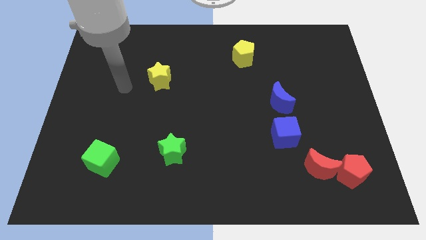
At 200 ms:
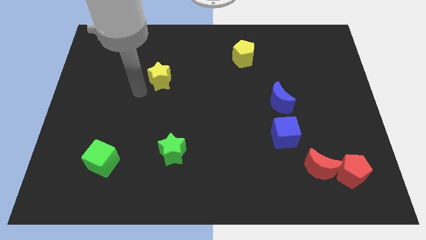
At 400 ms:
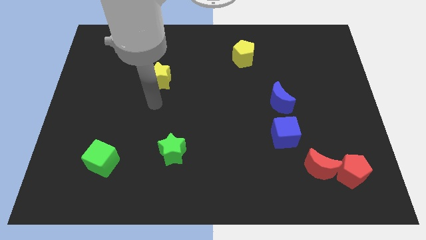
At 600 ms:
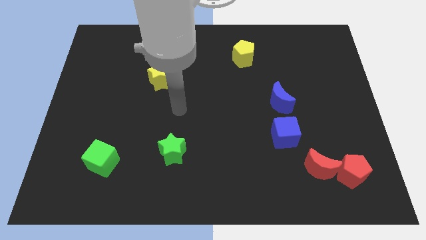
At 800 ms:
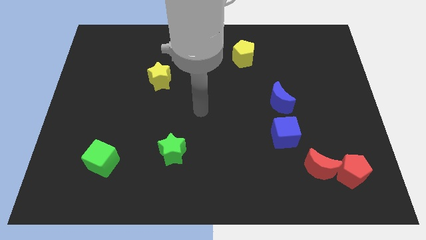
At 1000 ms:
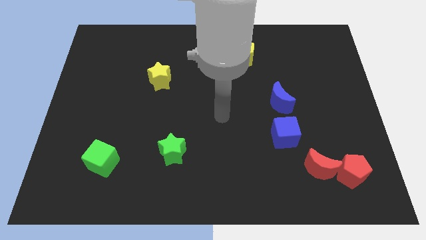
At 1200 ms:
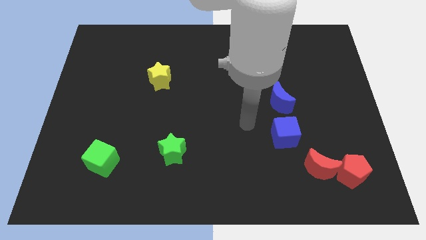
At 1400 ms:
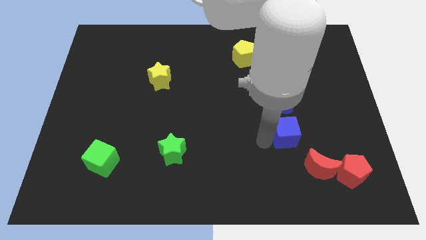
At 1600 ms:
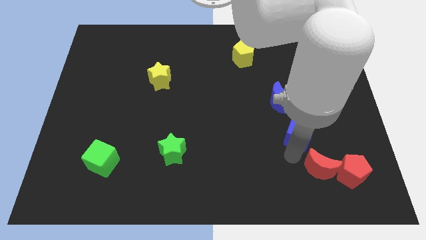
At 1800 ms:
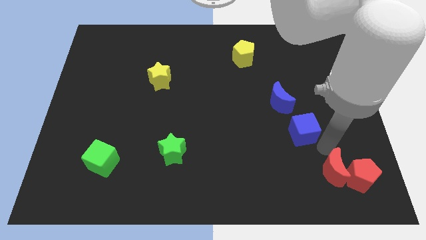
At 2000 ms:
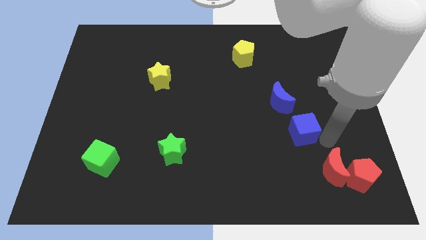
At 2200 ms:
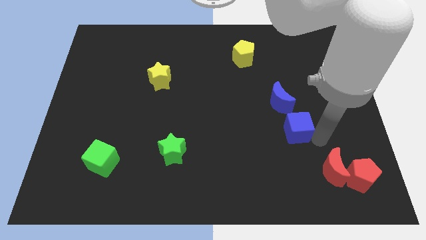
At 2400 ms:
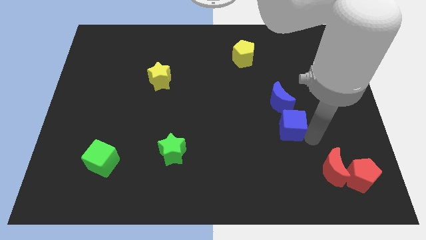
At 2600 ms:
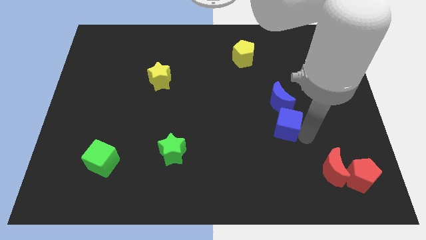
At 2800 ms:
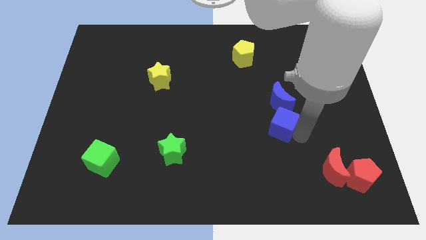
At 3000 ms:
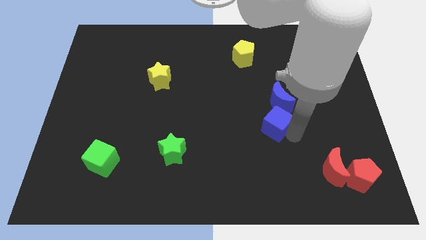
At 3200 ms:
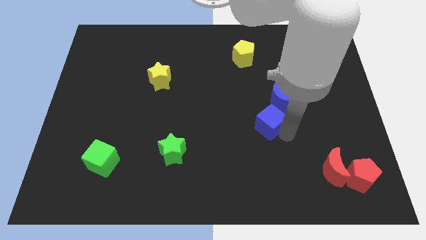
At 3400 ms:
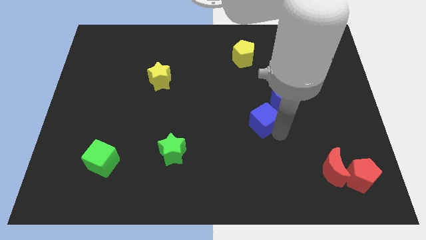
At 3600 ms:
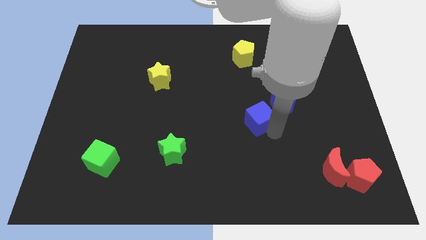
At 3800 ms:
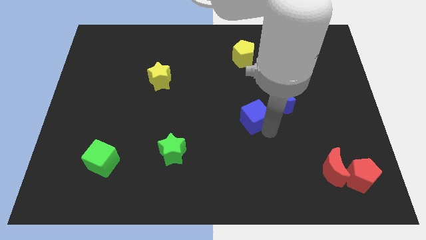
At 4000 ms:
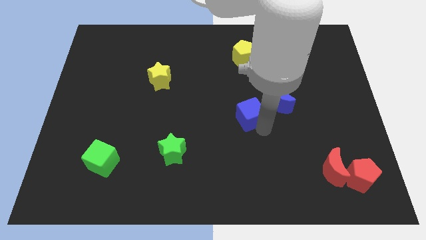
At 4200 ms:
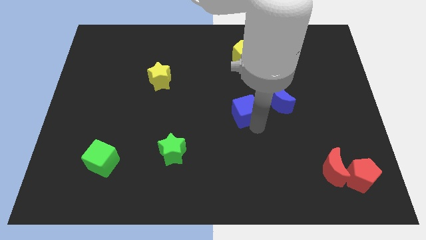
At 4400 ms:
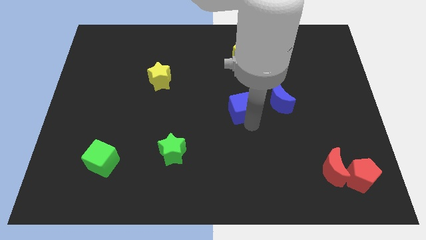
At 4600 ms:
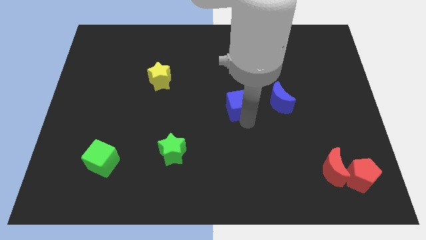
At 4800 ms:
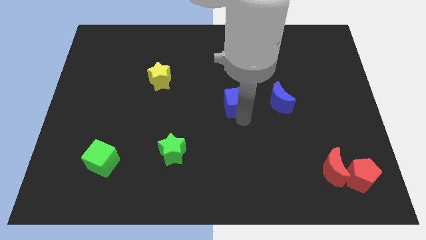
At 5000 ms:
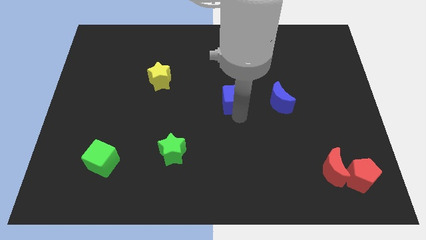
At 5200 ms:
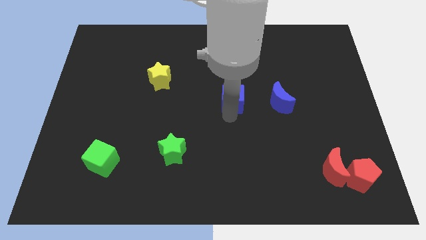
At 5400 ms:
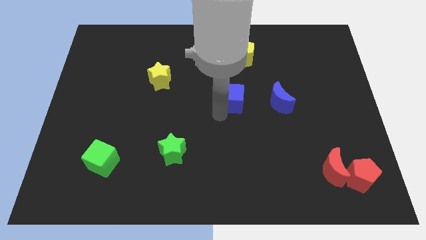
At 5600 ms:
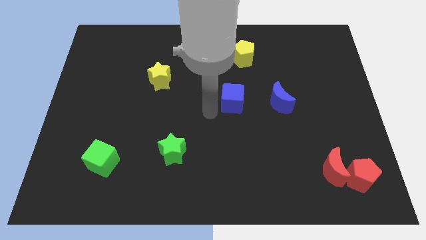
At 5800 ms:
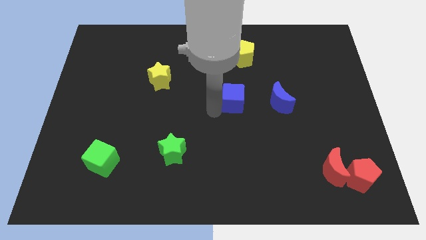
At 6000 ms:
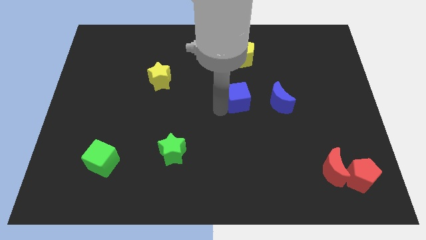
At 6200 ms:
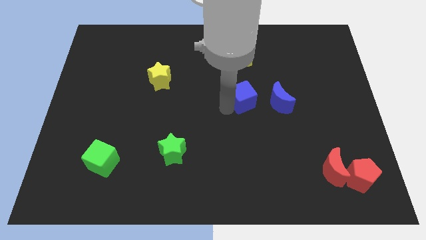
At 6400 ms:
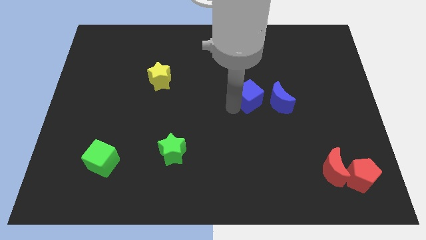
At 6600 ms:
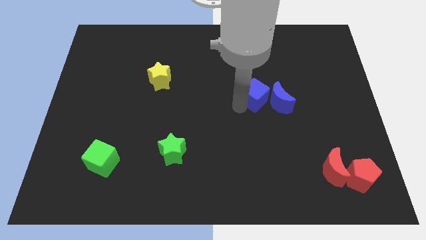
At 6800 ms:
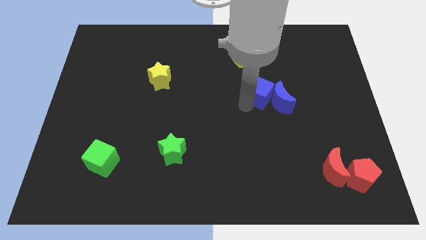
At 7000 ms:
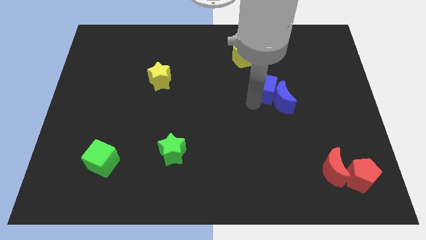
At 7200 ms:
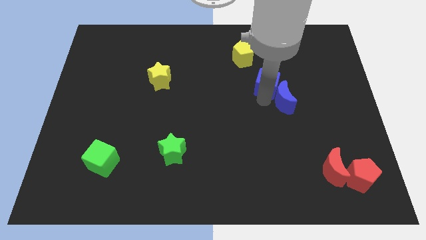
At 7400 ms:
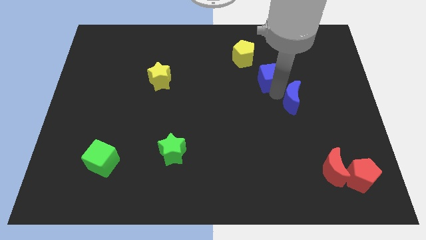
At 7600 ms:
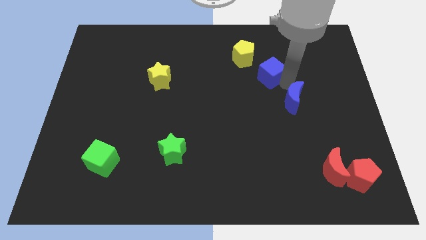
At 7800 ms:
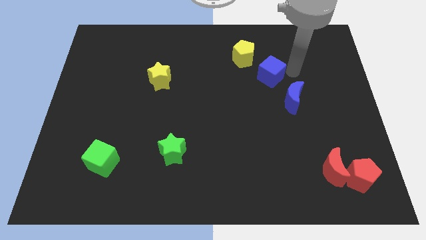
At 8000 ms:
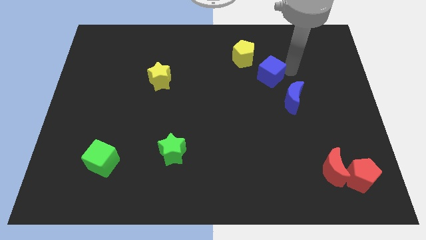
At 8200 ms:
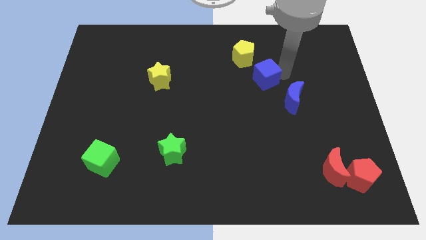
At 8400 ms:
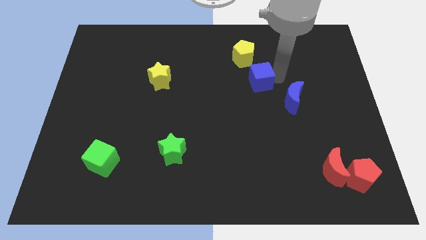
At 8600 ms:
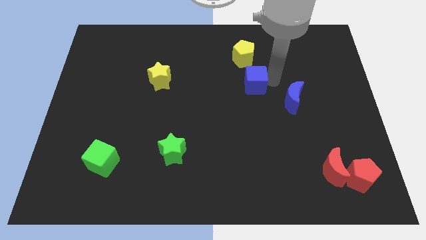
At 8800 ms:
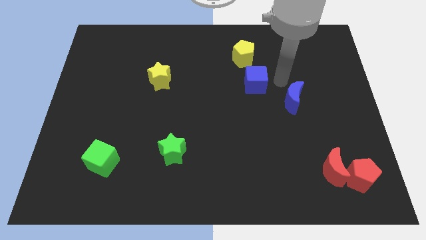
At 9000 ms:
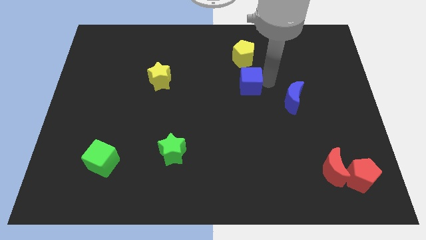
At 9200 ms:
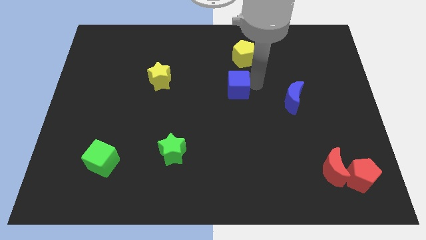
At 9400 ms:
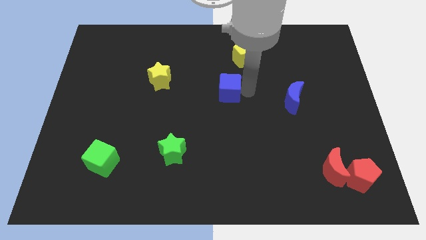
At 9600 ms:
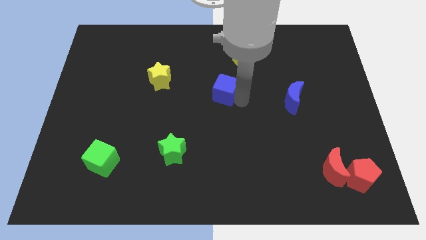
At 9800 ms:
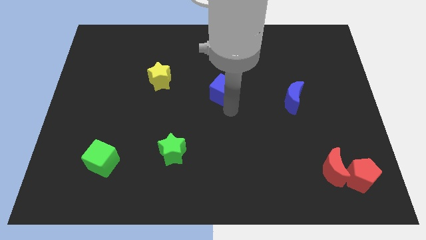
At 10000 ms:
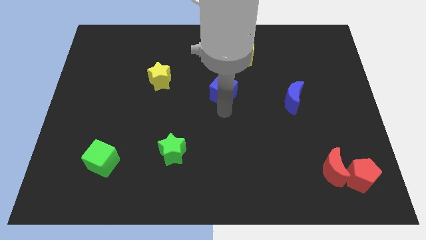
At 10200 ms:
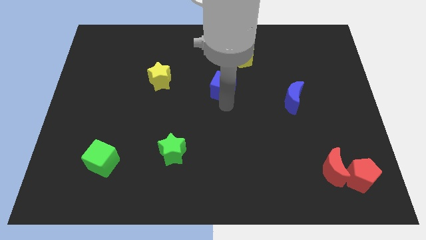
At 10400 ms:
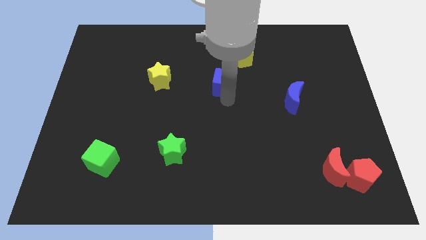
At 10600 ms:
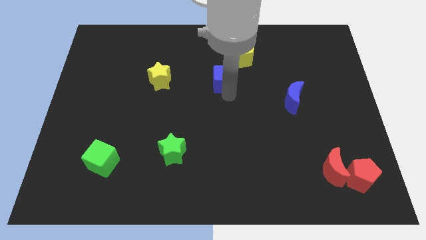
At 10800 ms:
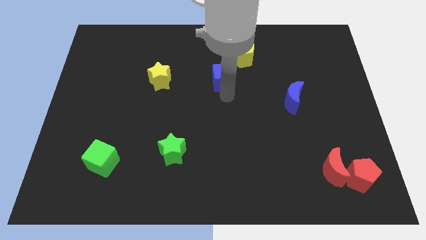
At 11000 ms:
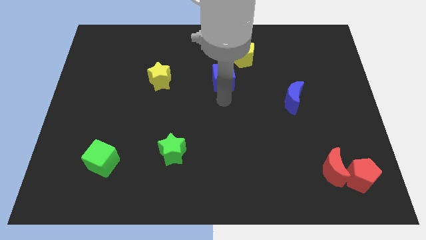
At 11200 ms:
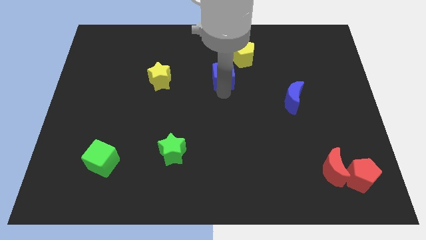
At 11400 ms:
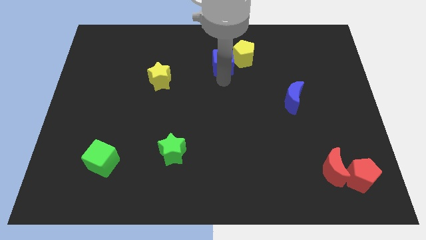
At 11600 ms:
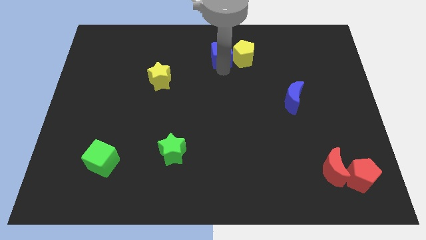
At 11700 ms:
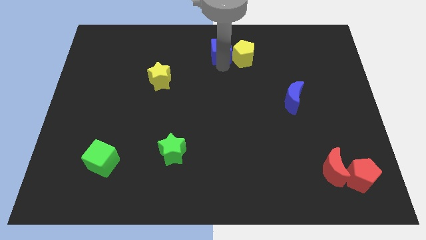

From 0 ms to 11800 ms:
put the blue cube to the top
